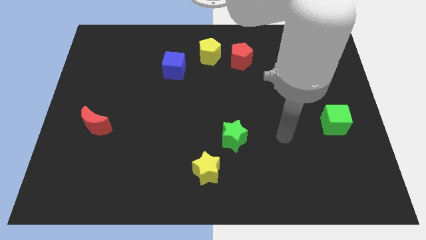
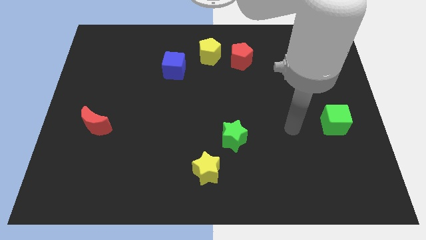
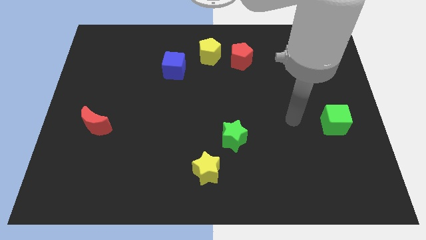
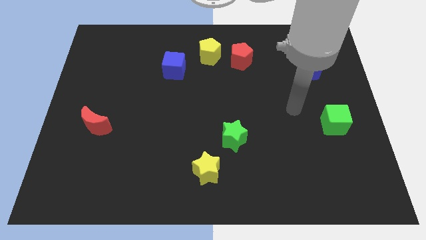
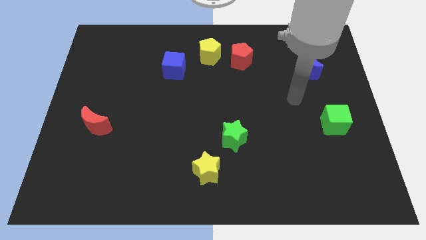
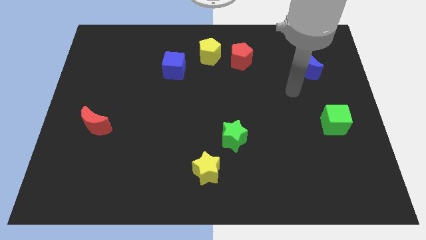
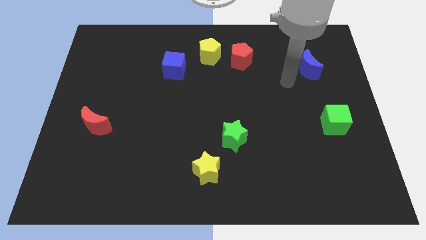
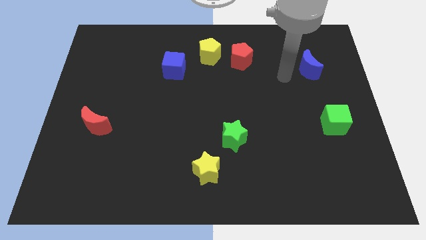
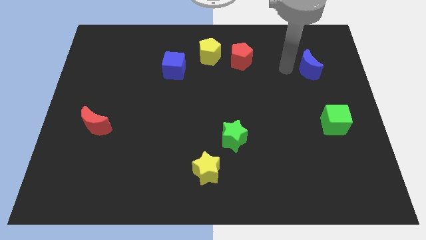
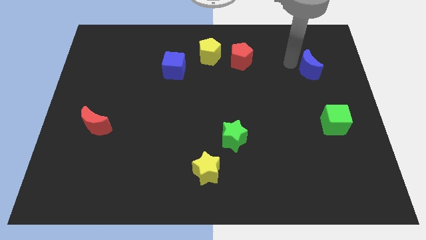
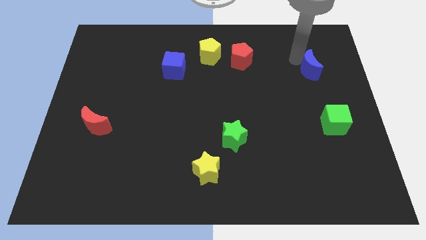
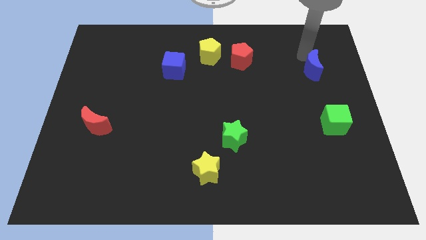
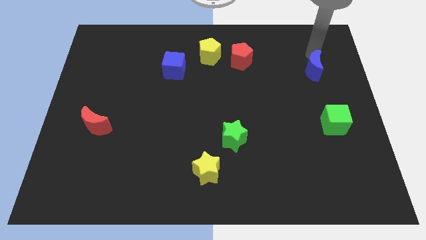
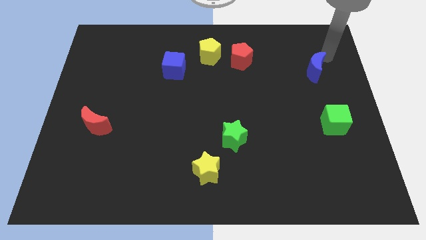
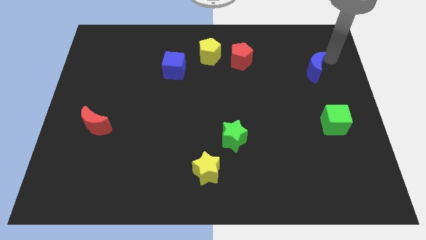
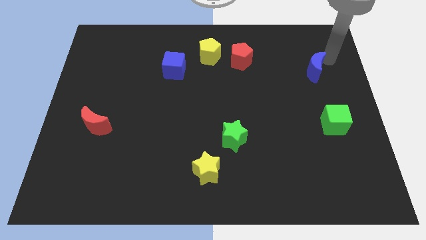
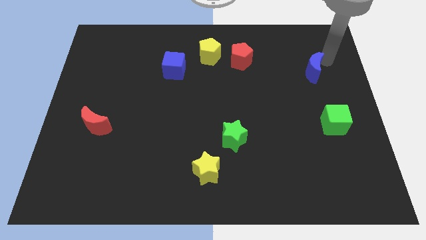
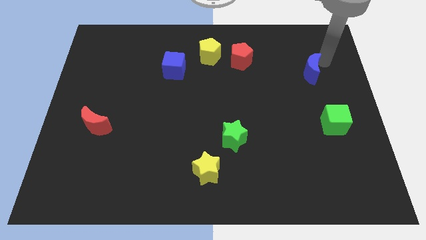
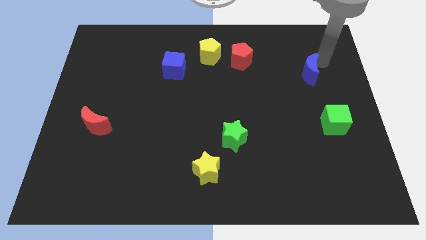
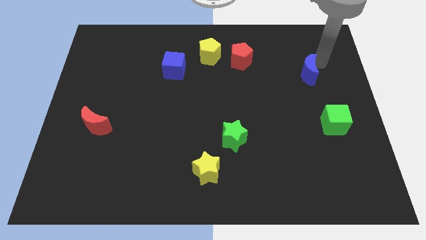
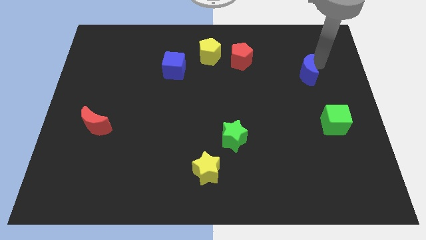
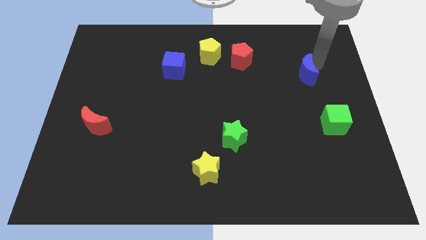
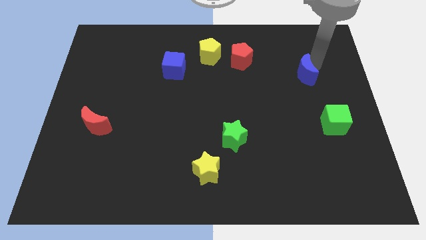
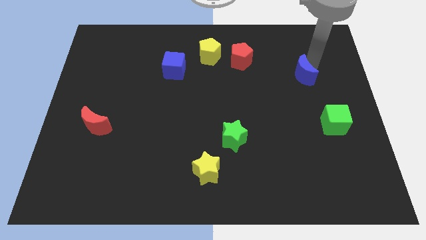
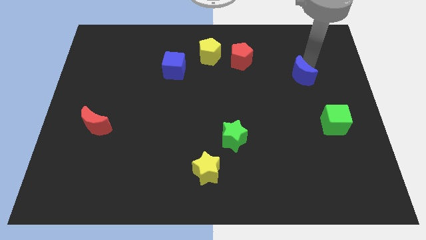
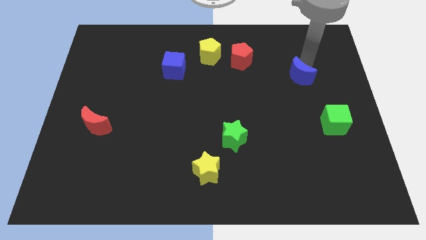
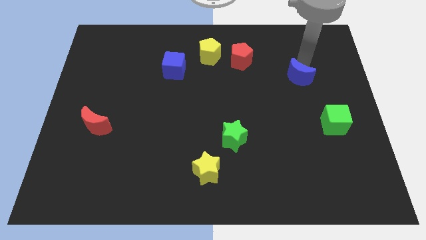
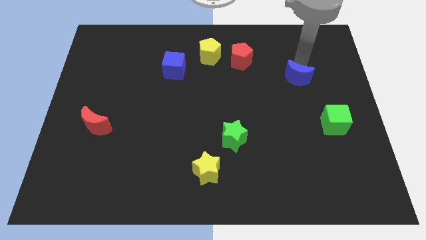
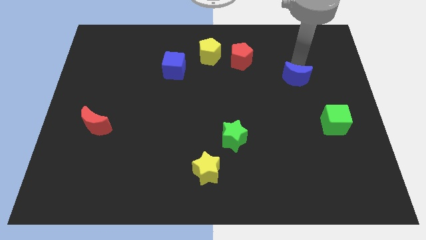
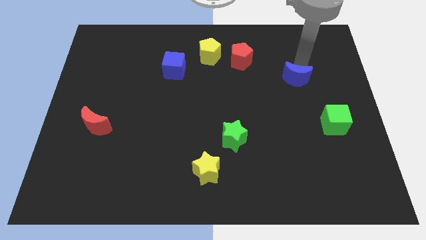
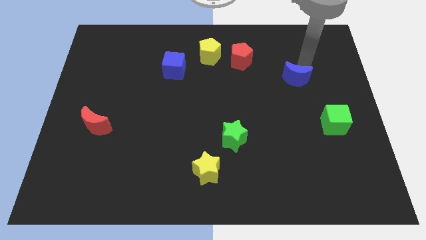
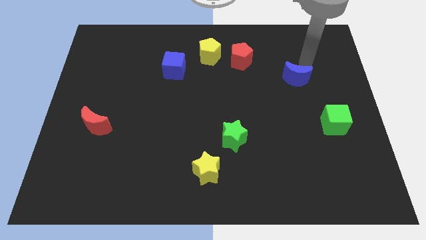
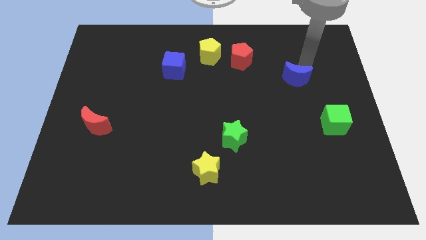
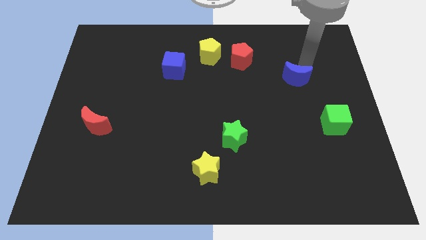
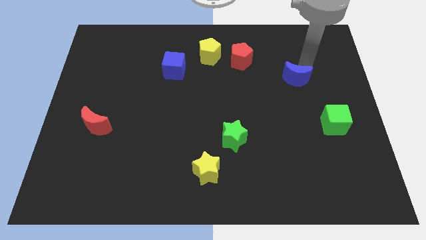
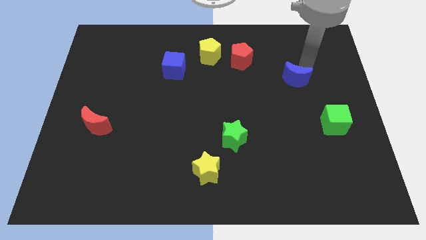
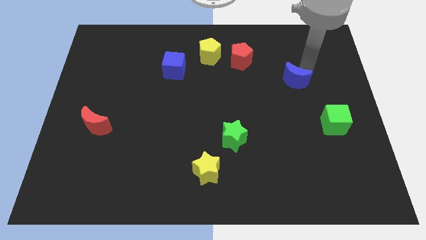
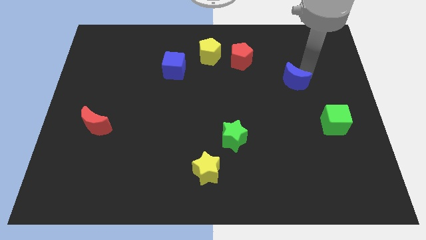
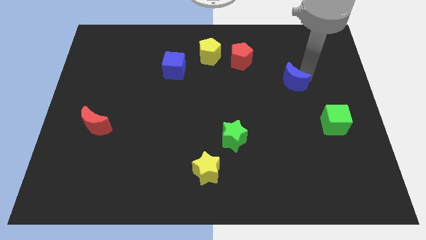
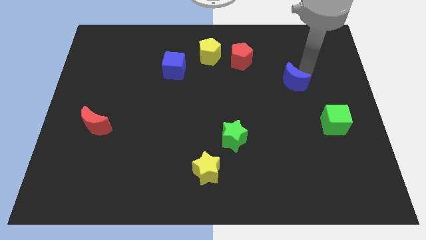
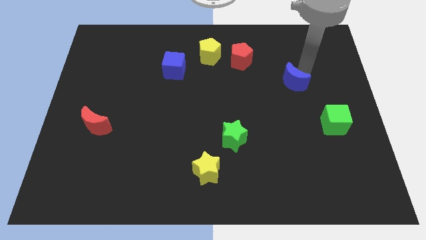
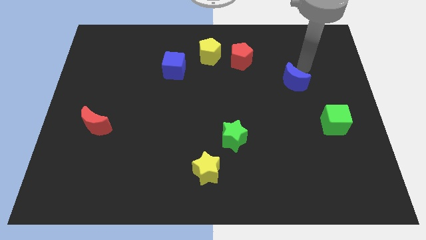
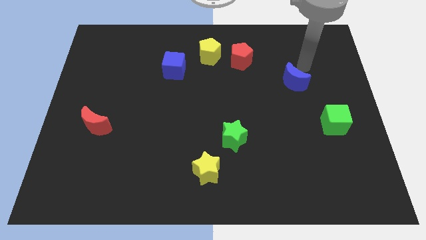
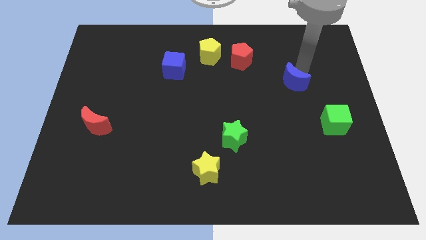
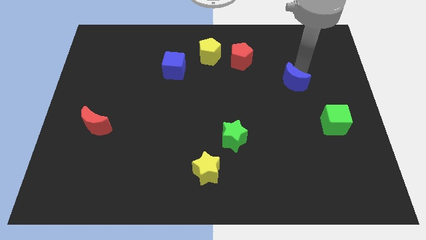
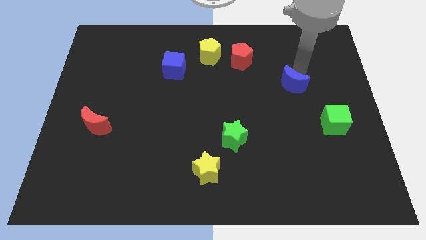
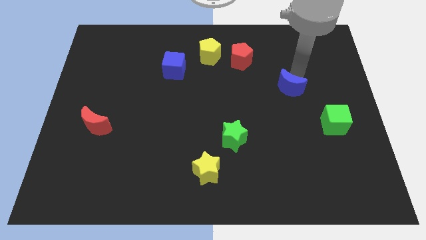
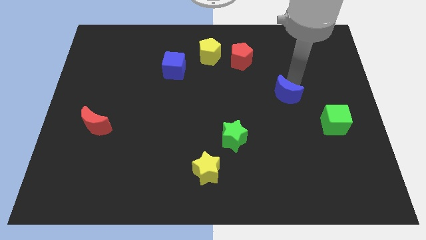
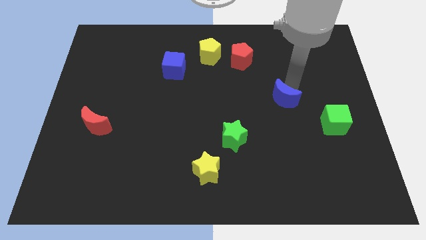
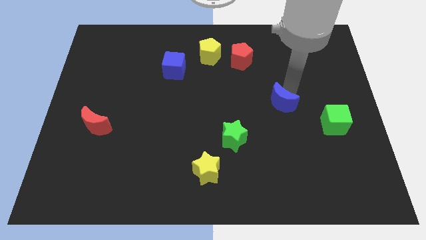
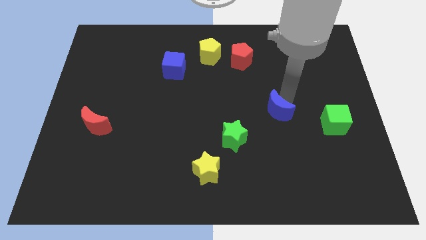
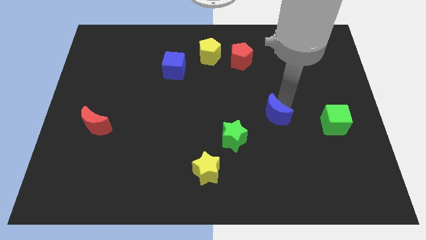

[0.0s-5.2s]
push the blue moon to the top right side of the green star
